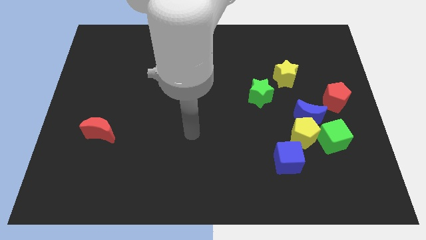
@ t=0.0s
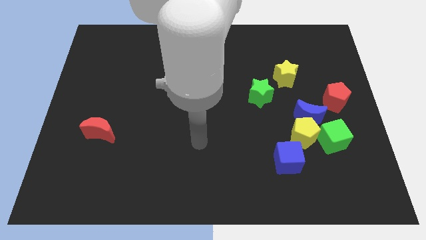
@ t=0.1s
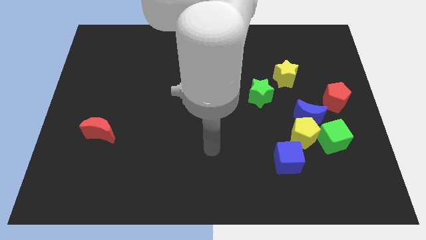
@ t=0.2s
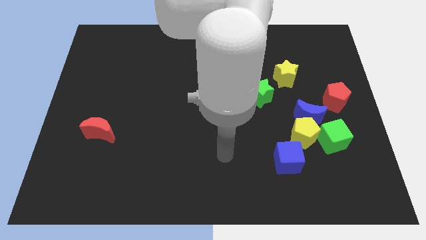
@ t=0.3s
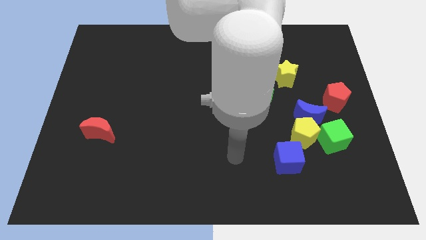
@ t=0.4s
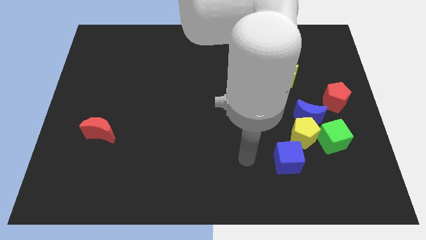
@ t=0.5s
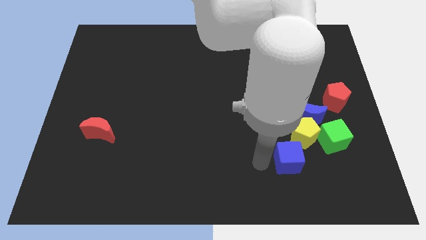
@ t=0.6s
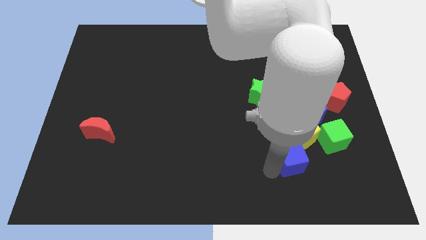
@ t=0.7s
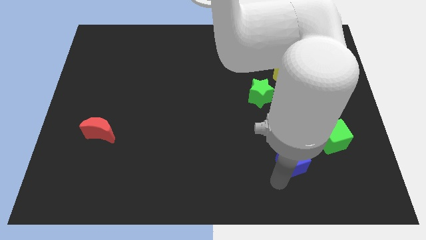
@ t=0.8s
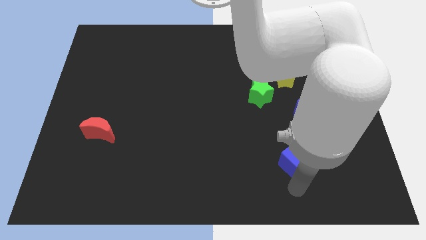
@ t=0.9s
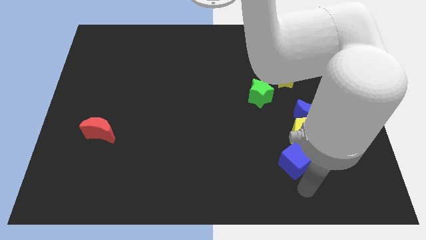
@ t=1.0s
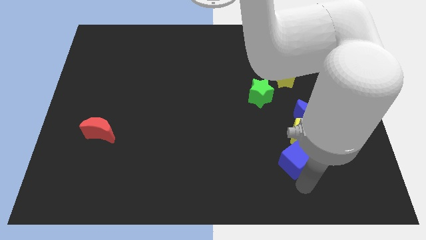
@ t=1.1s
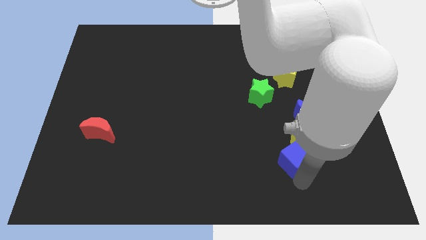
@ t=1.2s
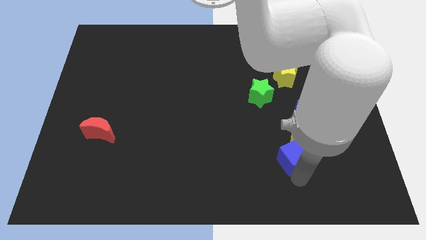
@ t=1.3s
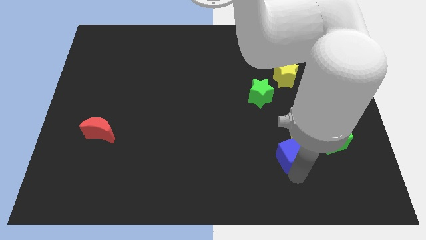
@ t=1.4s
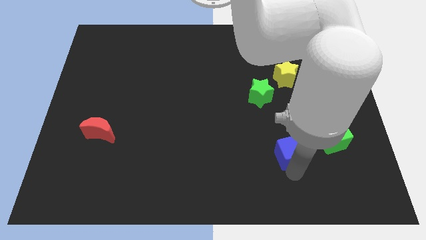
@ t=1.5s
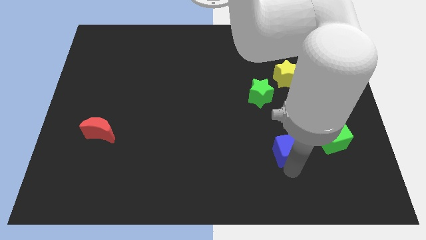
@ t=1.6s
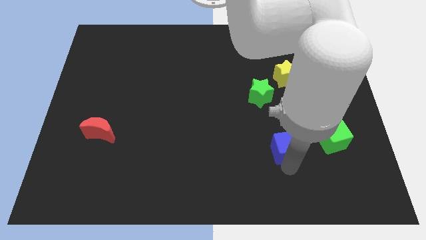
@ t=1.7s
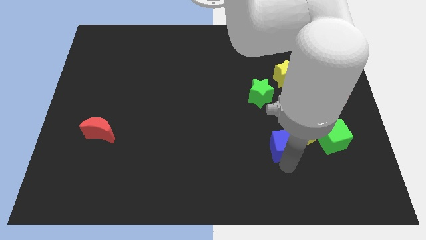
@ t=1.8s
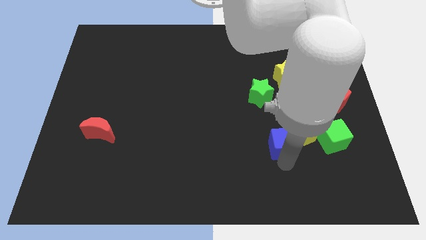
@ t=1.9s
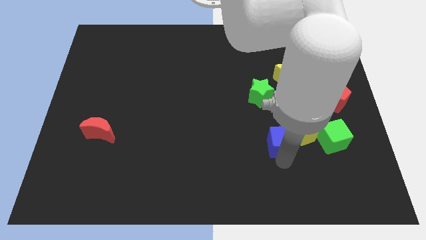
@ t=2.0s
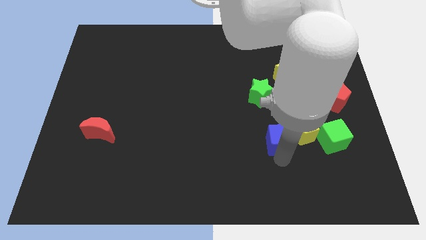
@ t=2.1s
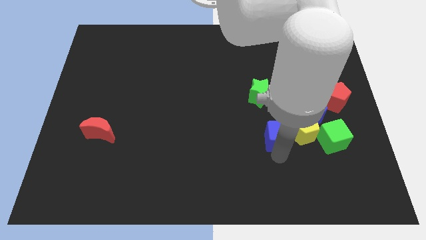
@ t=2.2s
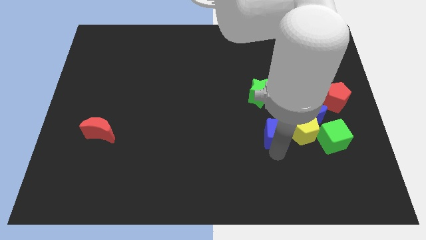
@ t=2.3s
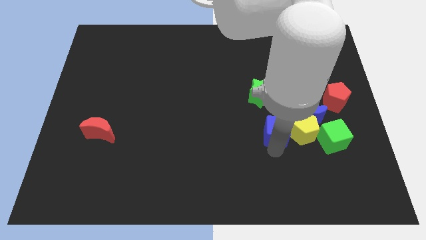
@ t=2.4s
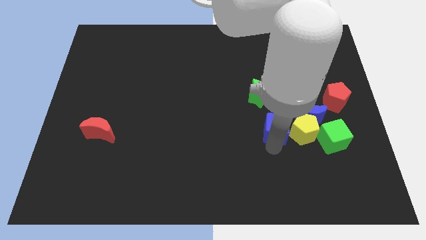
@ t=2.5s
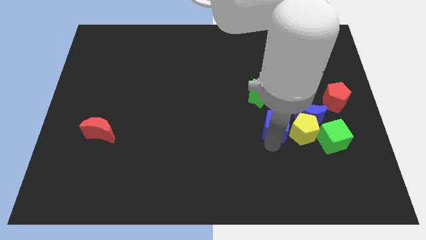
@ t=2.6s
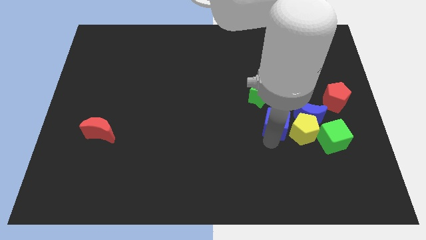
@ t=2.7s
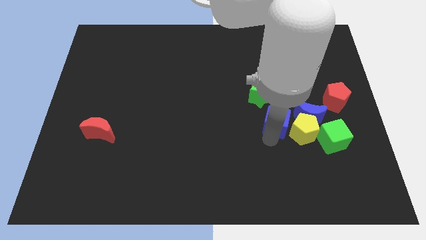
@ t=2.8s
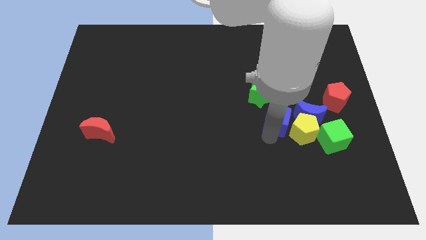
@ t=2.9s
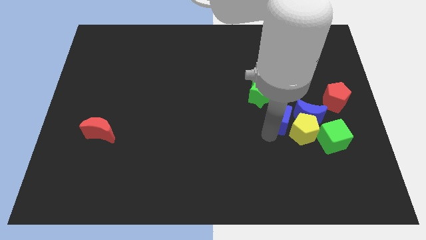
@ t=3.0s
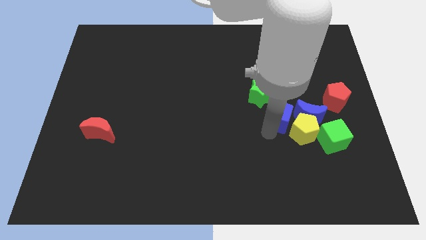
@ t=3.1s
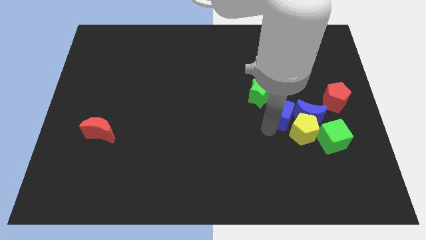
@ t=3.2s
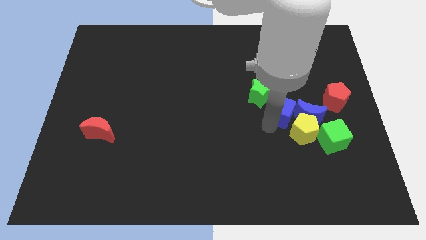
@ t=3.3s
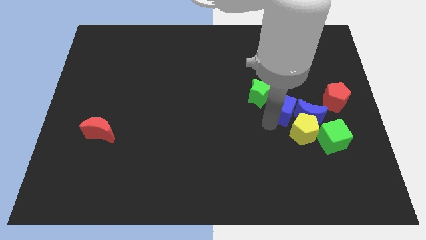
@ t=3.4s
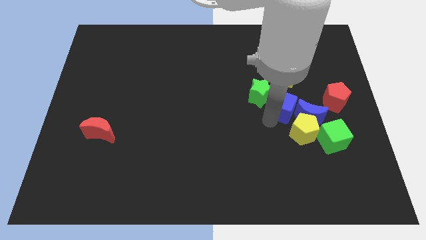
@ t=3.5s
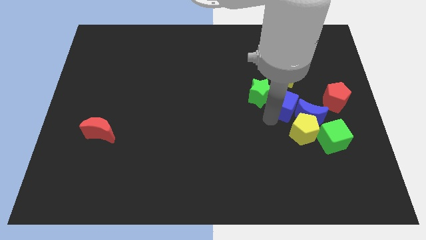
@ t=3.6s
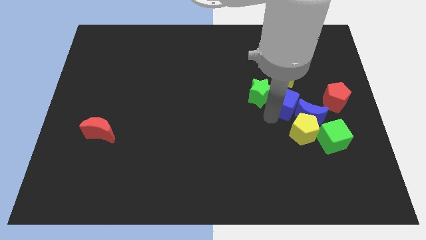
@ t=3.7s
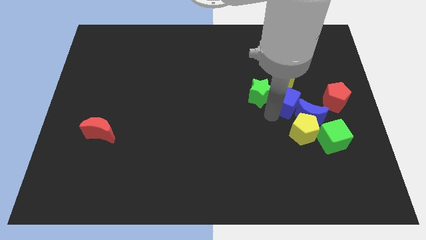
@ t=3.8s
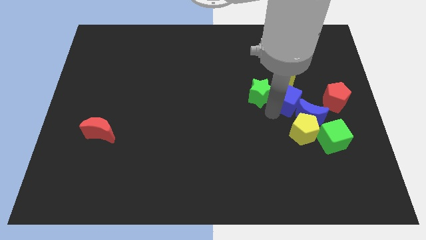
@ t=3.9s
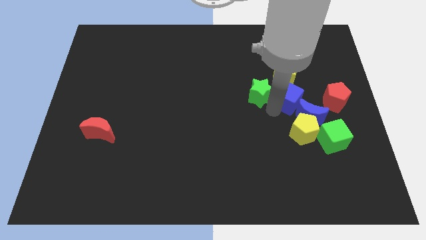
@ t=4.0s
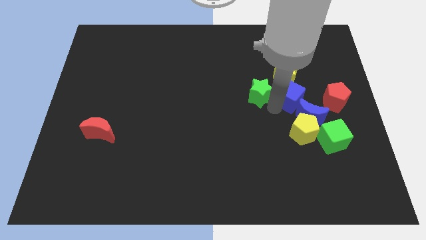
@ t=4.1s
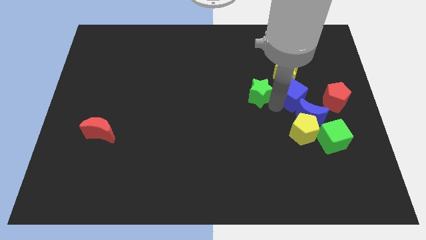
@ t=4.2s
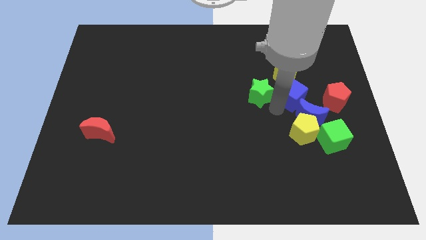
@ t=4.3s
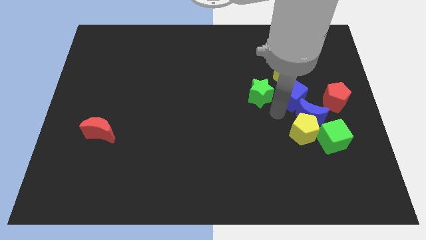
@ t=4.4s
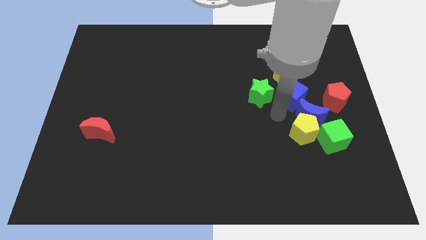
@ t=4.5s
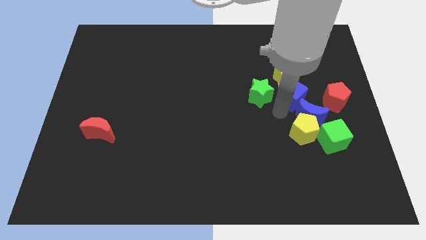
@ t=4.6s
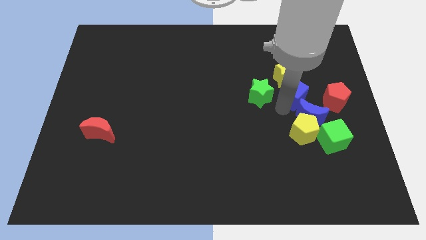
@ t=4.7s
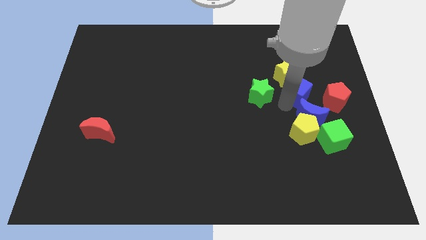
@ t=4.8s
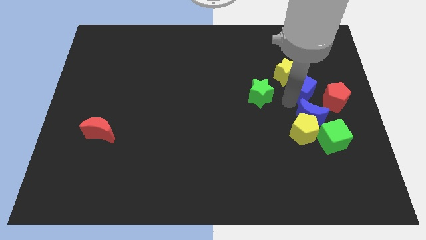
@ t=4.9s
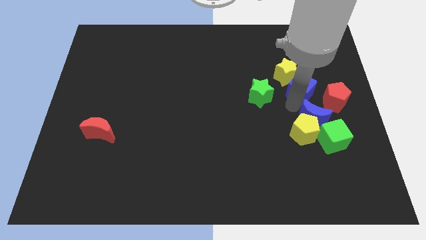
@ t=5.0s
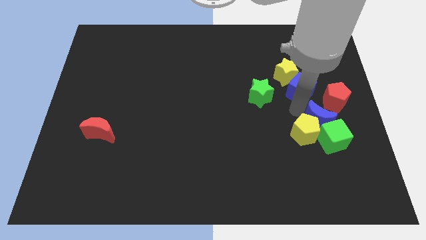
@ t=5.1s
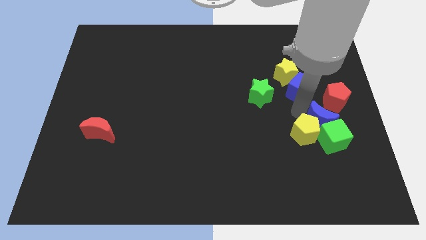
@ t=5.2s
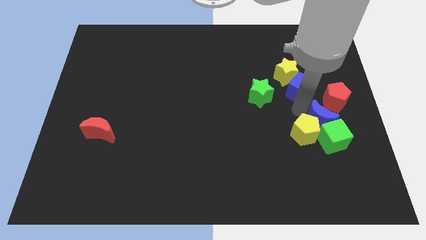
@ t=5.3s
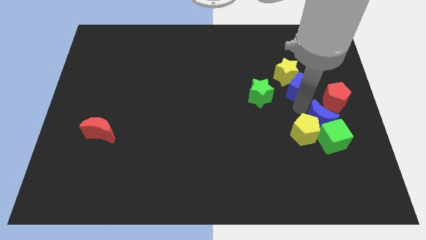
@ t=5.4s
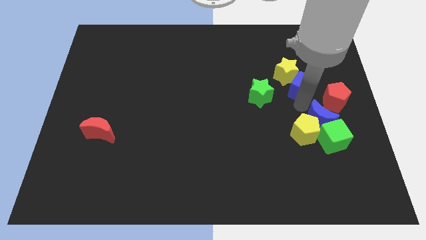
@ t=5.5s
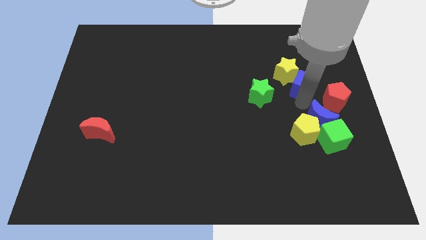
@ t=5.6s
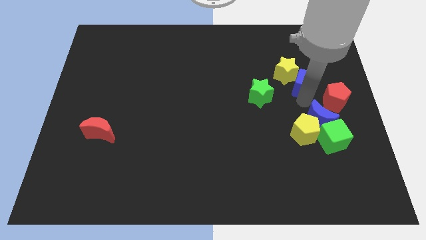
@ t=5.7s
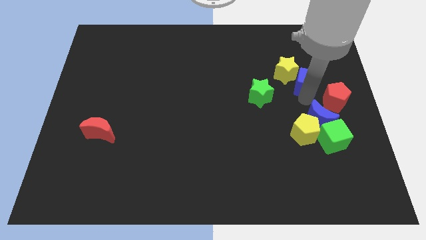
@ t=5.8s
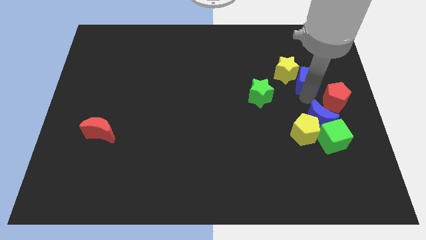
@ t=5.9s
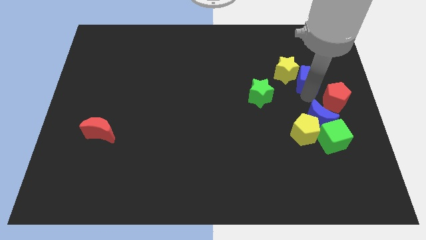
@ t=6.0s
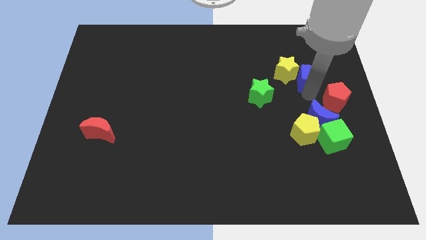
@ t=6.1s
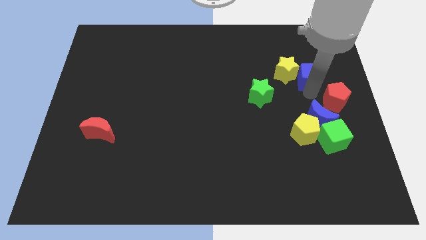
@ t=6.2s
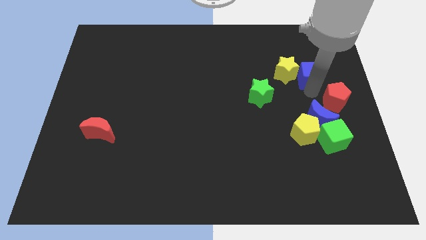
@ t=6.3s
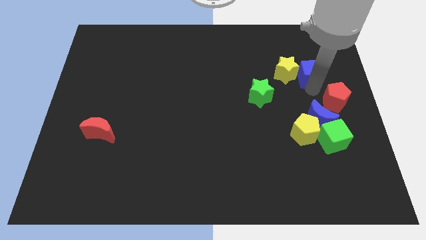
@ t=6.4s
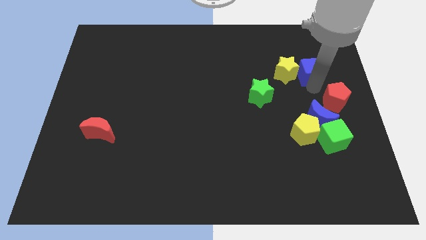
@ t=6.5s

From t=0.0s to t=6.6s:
slide the blue cube diagonally up and to the right of the yellow star

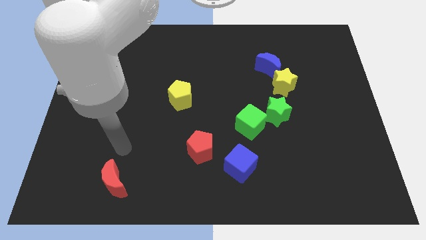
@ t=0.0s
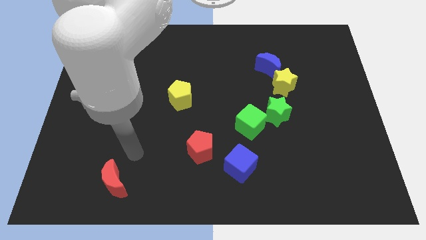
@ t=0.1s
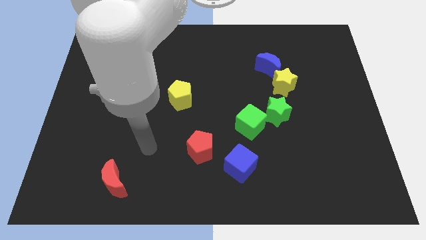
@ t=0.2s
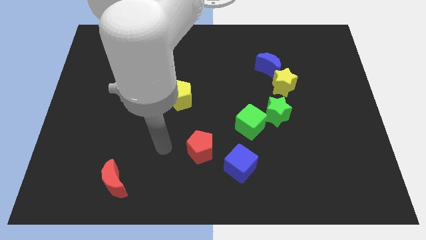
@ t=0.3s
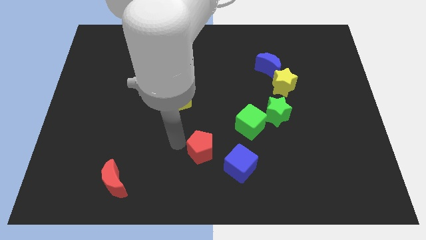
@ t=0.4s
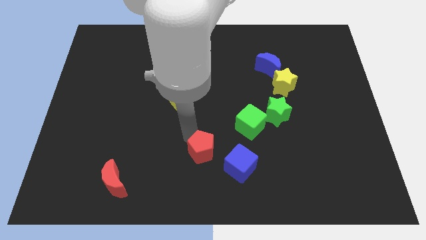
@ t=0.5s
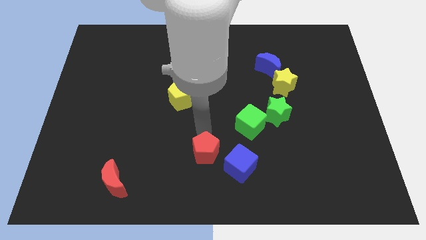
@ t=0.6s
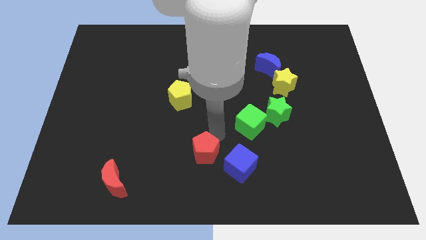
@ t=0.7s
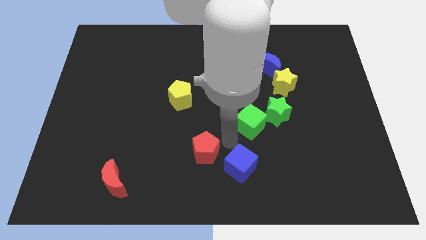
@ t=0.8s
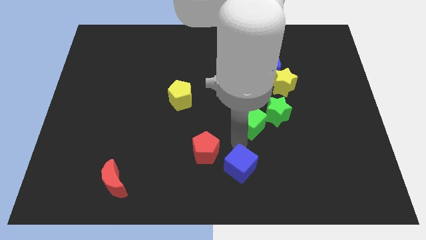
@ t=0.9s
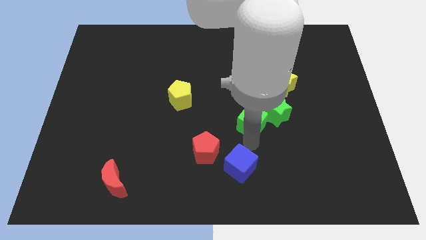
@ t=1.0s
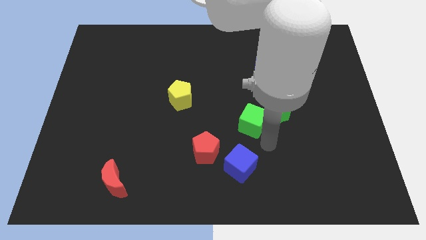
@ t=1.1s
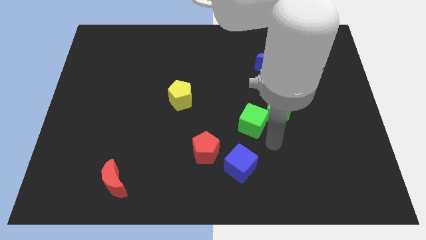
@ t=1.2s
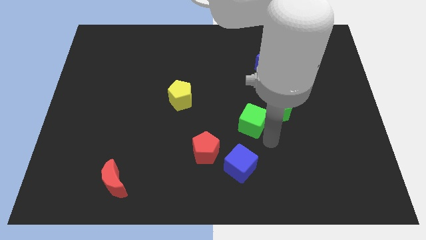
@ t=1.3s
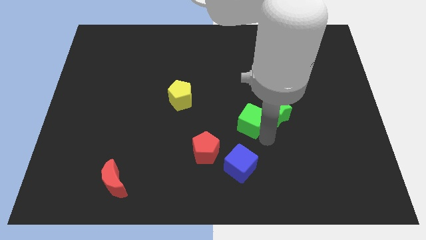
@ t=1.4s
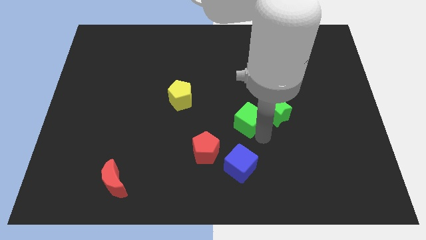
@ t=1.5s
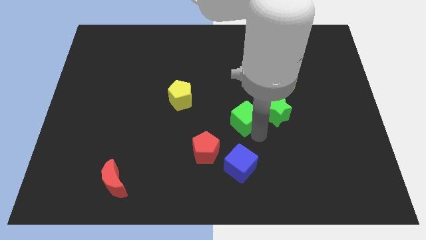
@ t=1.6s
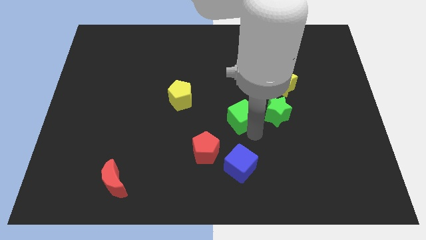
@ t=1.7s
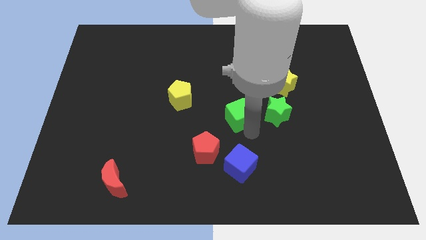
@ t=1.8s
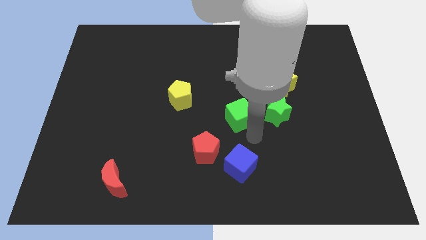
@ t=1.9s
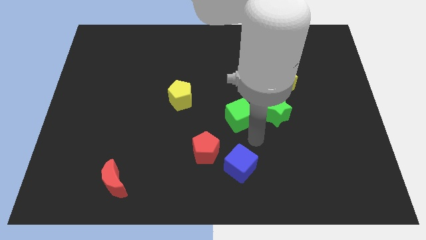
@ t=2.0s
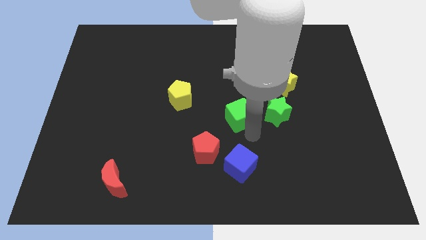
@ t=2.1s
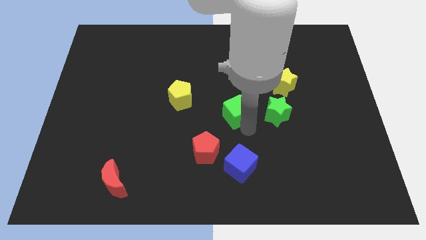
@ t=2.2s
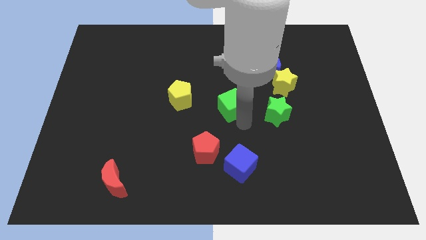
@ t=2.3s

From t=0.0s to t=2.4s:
push the green cube just right of the yellow pentagon
